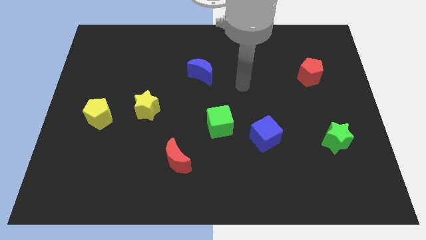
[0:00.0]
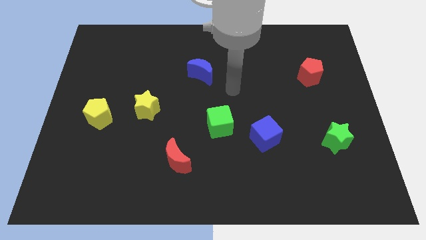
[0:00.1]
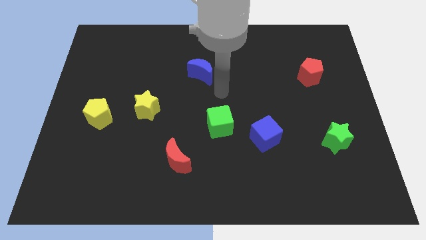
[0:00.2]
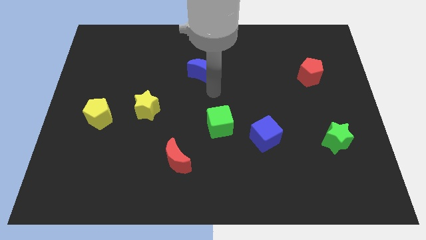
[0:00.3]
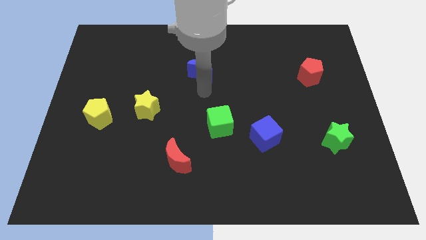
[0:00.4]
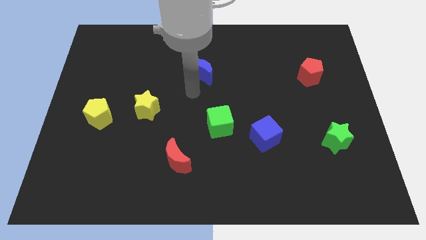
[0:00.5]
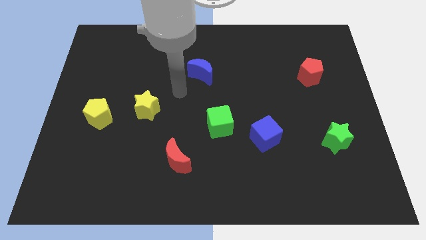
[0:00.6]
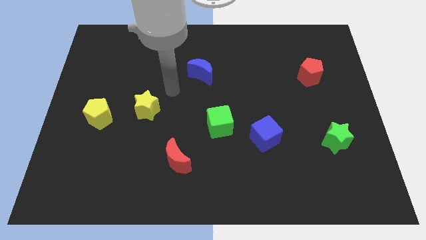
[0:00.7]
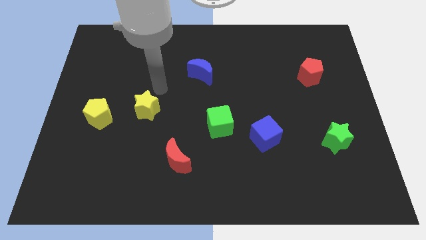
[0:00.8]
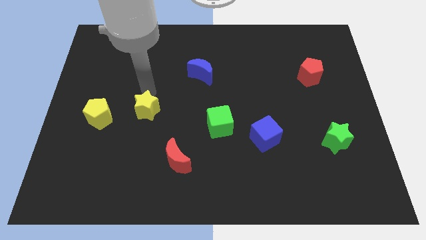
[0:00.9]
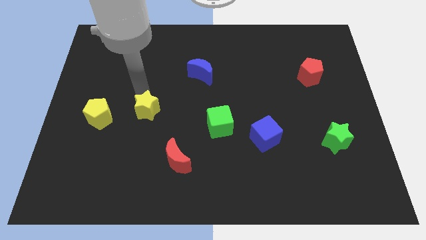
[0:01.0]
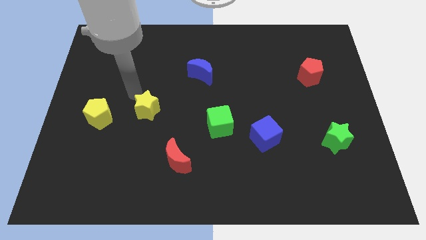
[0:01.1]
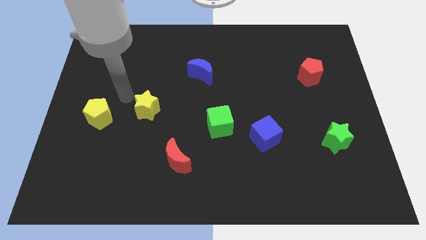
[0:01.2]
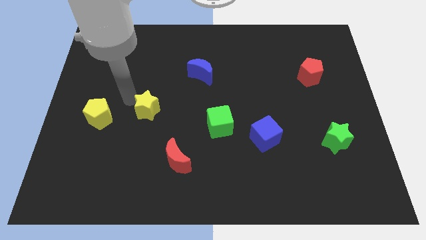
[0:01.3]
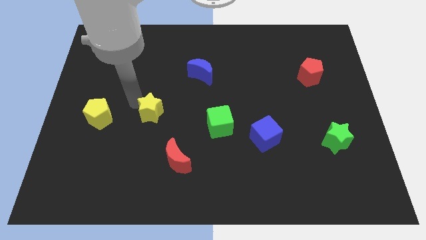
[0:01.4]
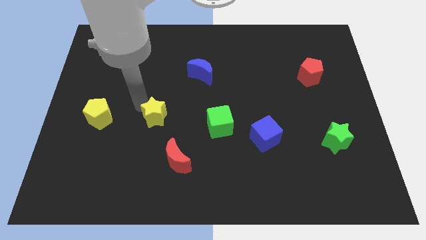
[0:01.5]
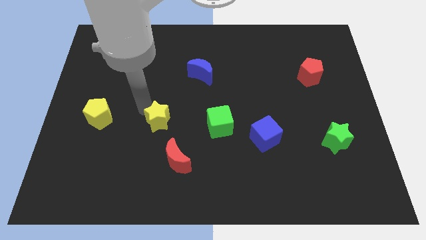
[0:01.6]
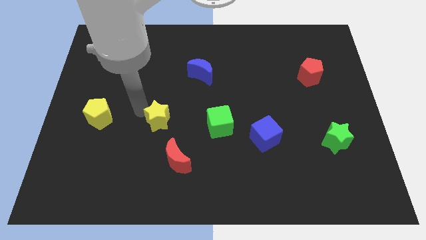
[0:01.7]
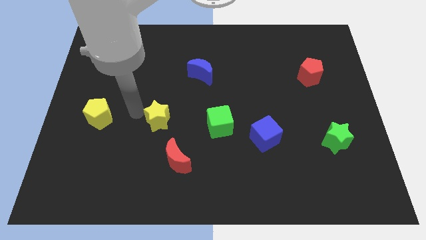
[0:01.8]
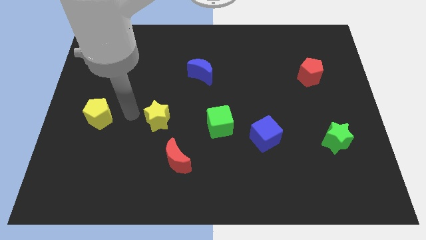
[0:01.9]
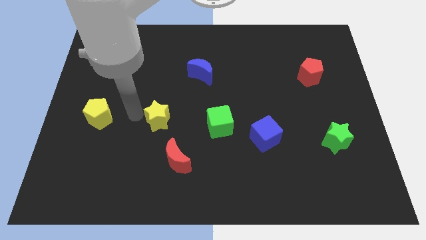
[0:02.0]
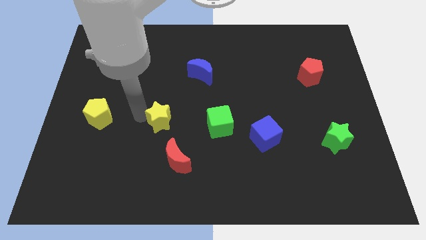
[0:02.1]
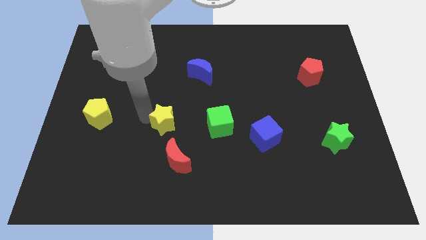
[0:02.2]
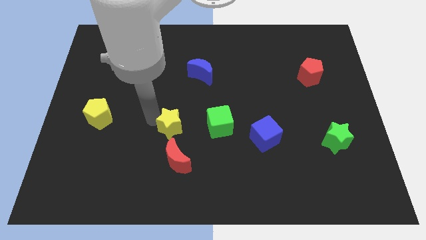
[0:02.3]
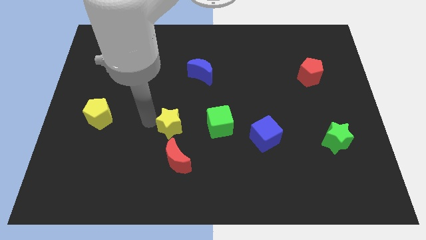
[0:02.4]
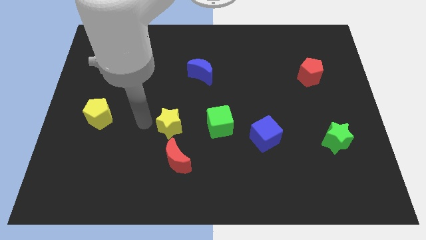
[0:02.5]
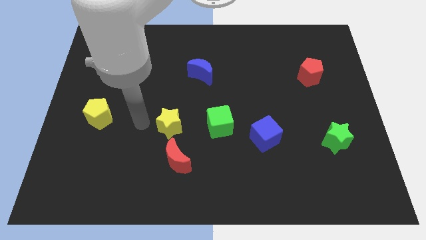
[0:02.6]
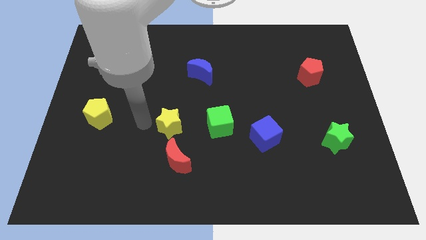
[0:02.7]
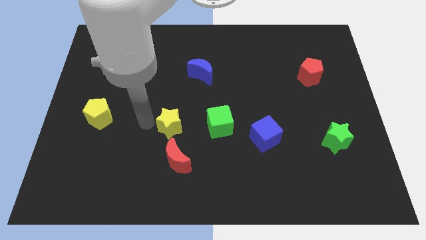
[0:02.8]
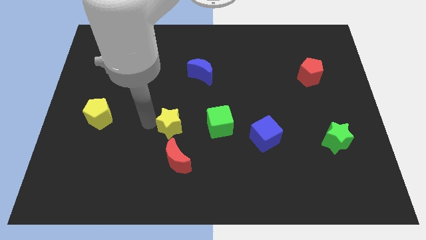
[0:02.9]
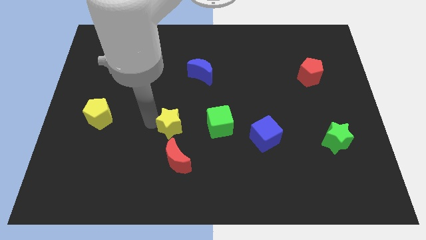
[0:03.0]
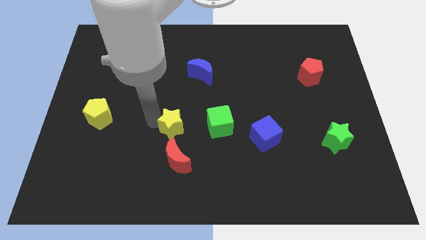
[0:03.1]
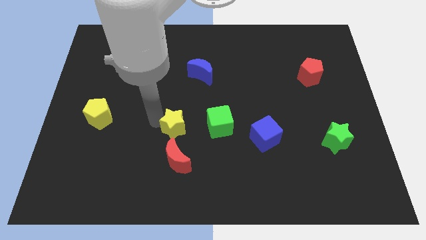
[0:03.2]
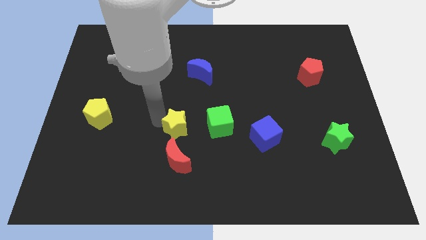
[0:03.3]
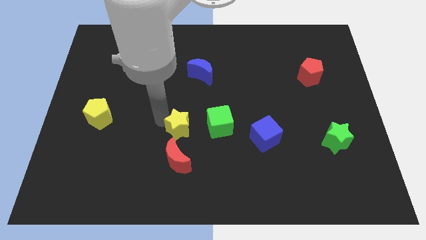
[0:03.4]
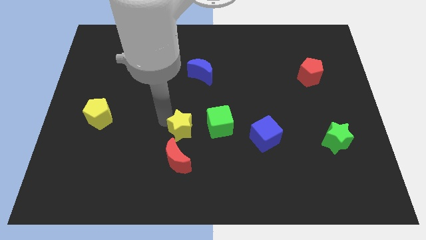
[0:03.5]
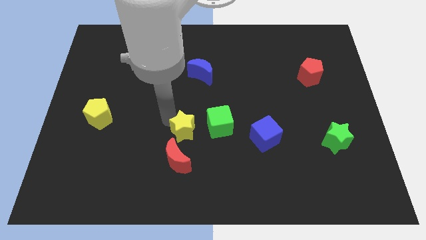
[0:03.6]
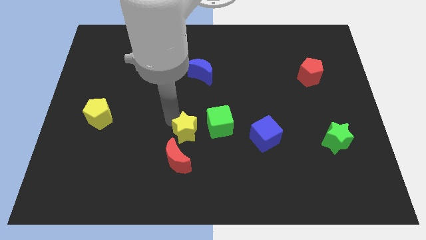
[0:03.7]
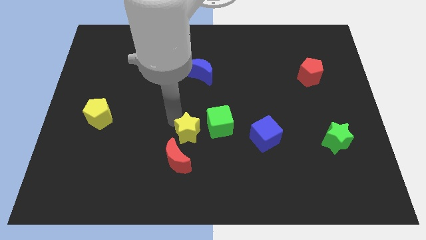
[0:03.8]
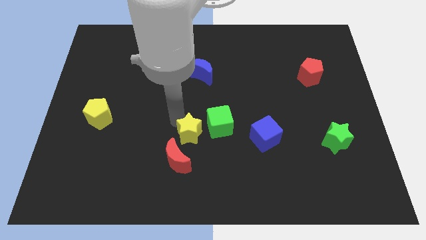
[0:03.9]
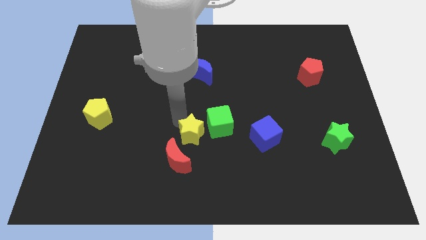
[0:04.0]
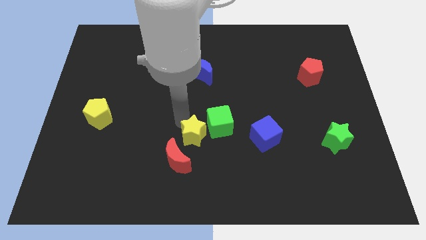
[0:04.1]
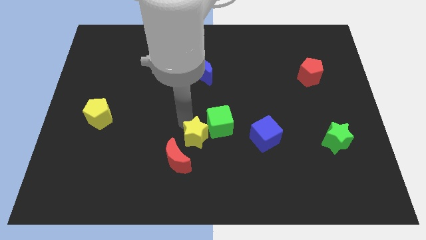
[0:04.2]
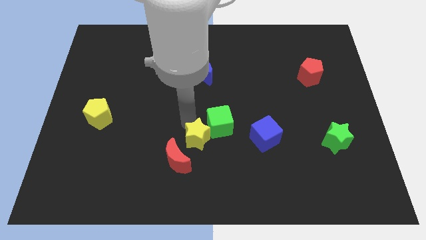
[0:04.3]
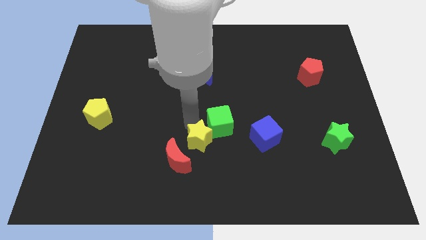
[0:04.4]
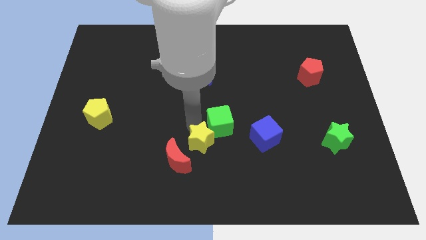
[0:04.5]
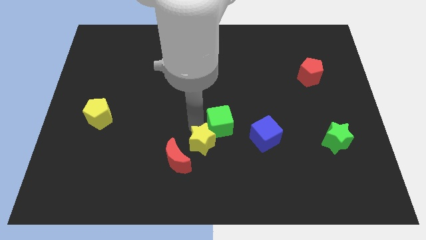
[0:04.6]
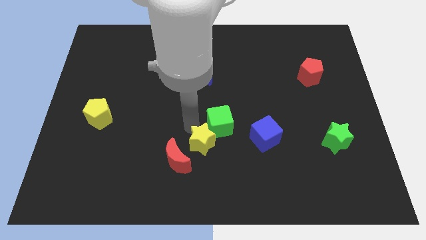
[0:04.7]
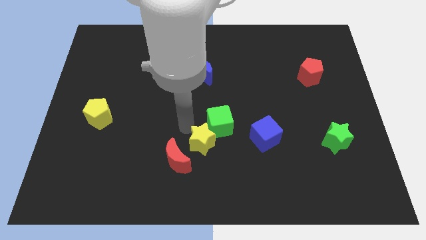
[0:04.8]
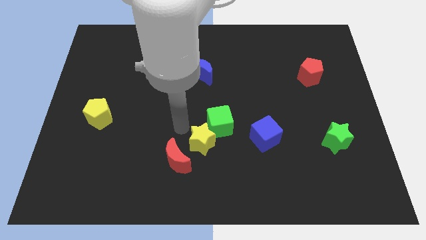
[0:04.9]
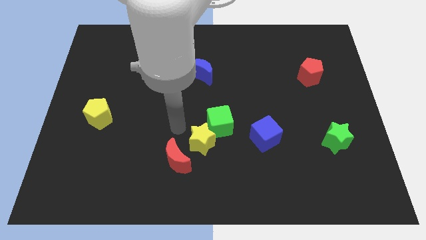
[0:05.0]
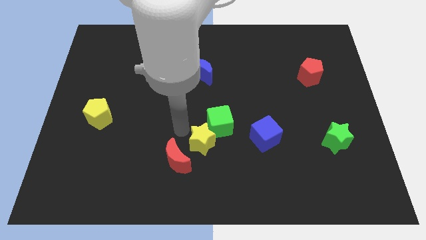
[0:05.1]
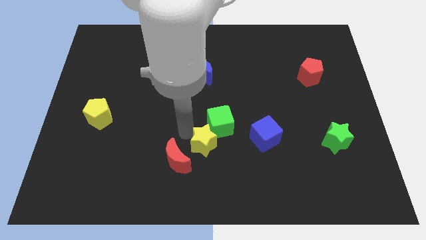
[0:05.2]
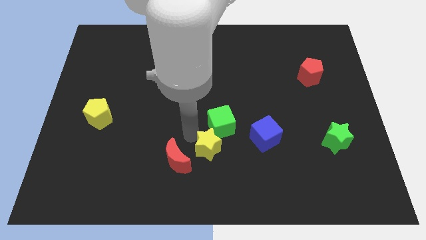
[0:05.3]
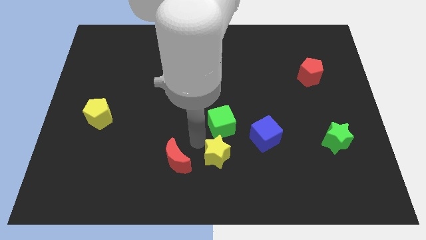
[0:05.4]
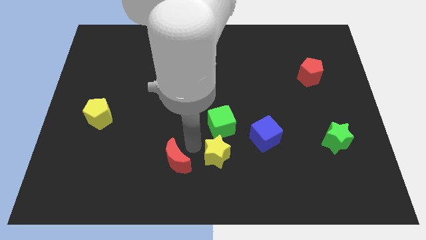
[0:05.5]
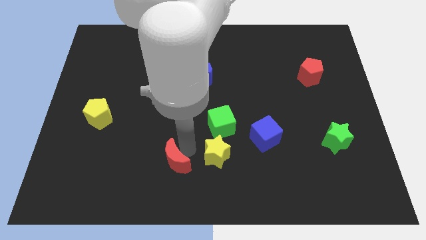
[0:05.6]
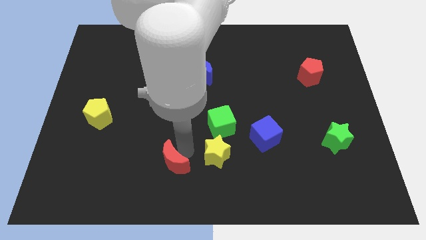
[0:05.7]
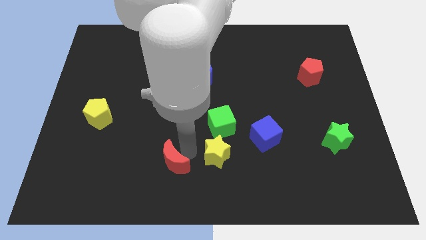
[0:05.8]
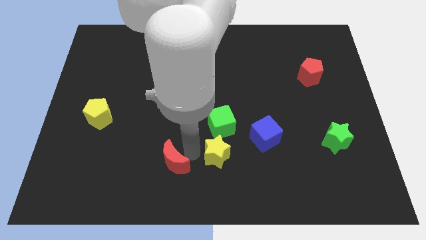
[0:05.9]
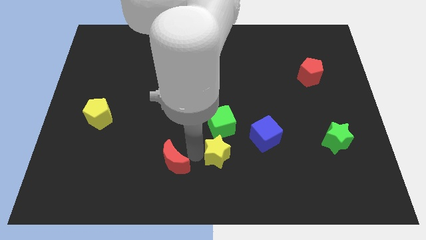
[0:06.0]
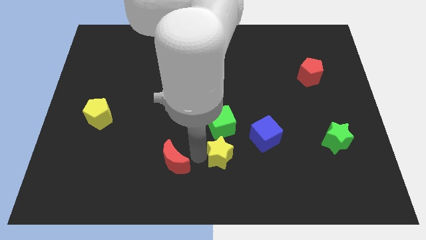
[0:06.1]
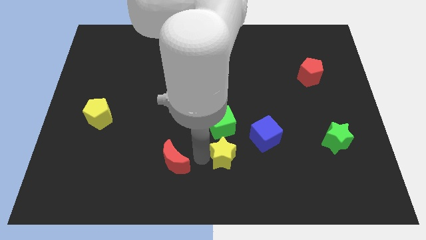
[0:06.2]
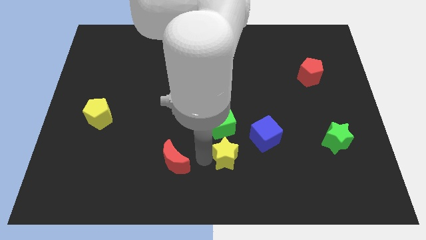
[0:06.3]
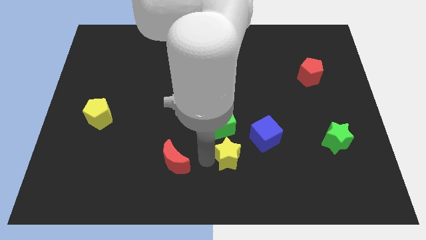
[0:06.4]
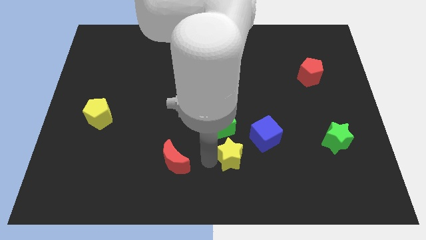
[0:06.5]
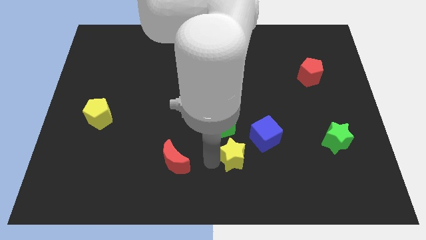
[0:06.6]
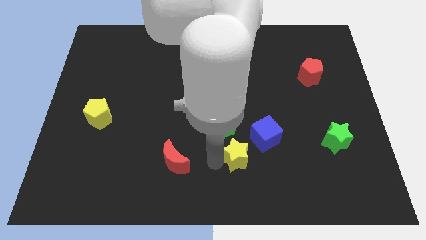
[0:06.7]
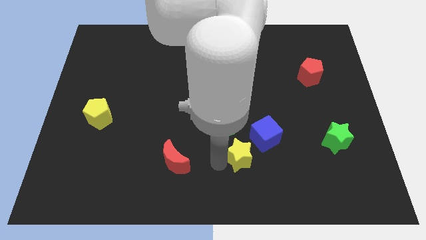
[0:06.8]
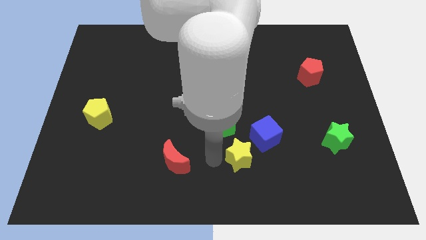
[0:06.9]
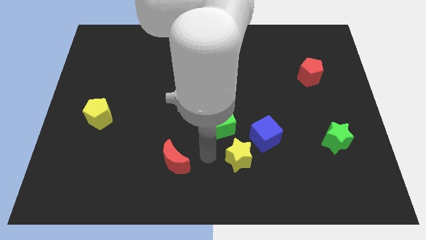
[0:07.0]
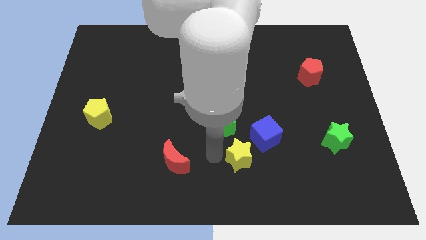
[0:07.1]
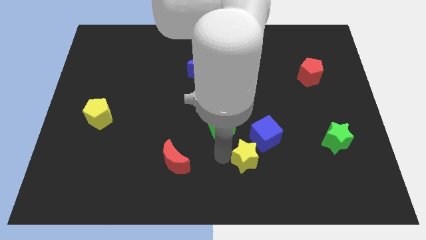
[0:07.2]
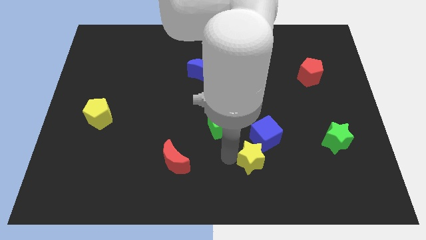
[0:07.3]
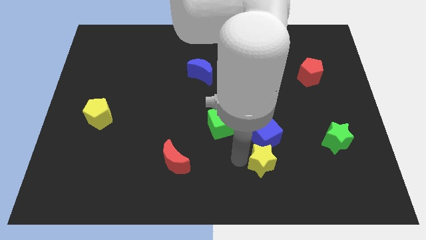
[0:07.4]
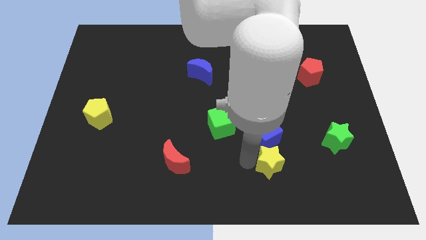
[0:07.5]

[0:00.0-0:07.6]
put the yellow star to the bottom right side of the blue cube
